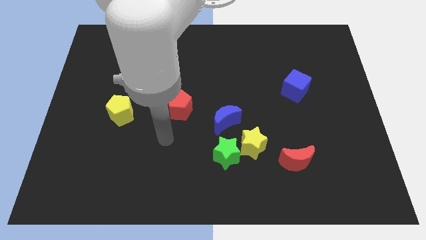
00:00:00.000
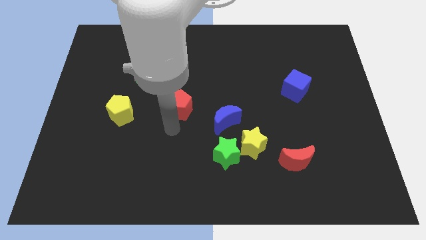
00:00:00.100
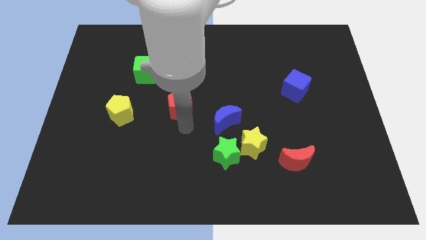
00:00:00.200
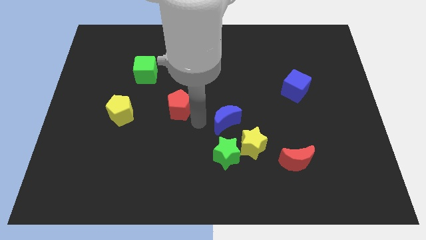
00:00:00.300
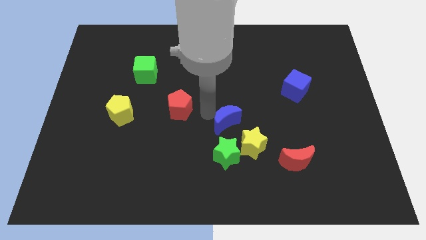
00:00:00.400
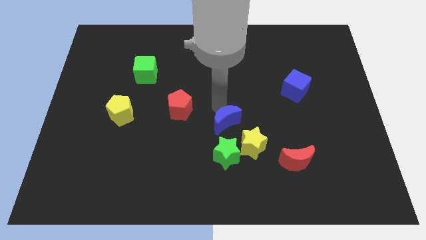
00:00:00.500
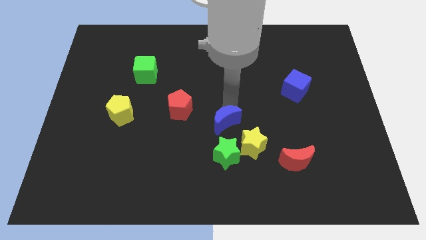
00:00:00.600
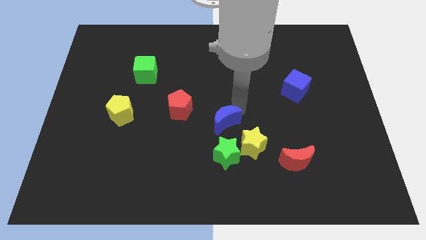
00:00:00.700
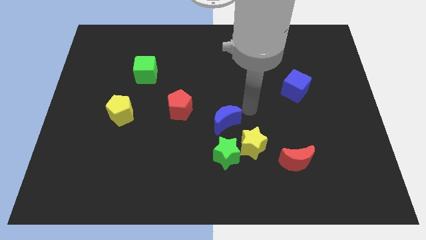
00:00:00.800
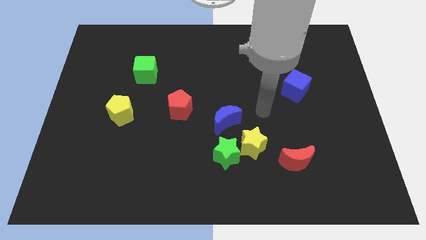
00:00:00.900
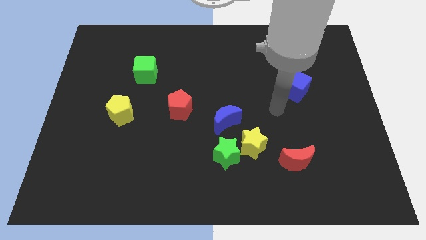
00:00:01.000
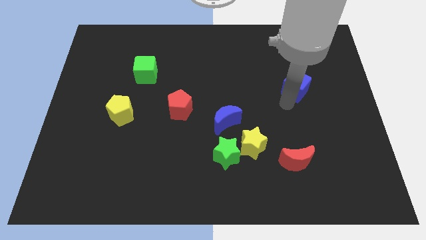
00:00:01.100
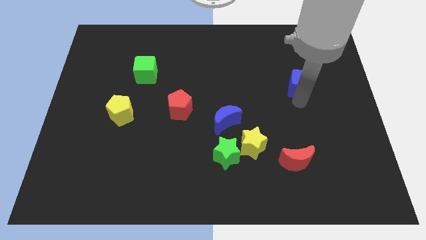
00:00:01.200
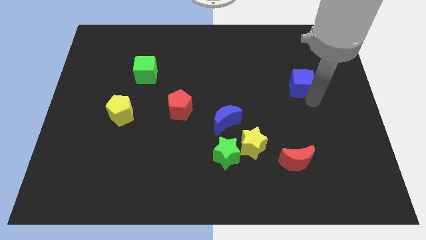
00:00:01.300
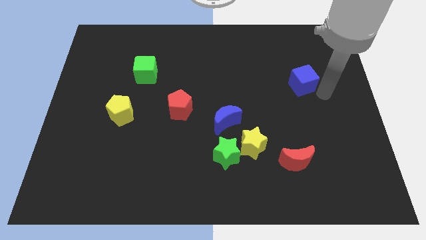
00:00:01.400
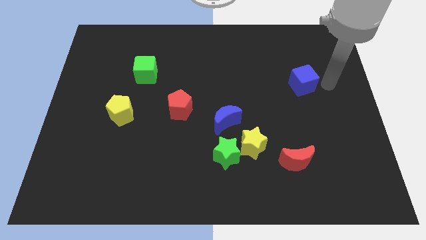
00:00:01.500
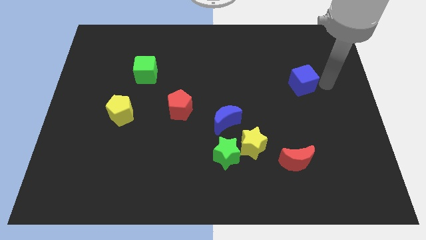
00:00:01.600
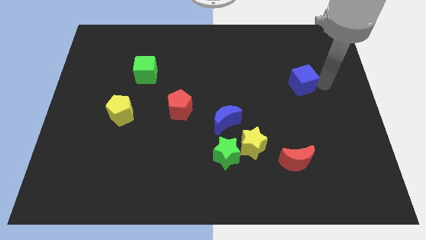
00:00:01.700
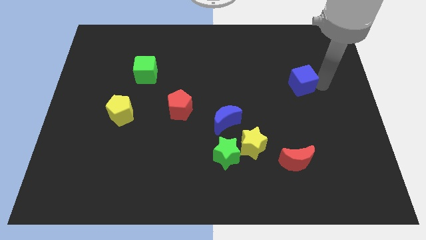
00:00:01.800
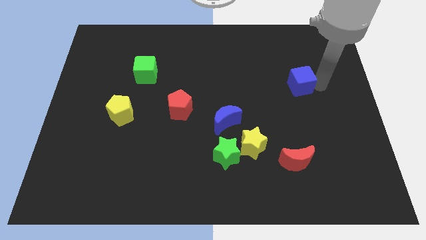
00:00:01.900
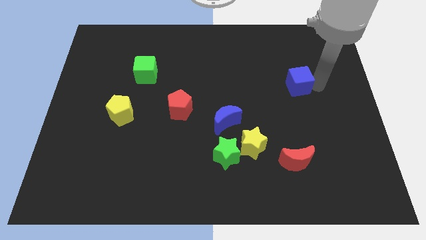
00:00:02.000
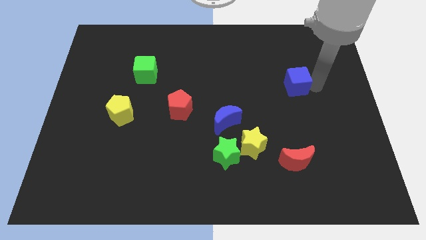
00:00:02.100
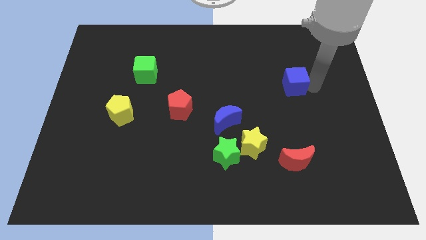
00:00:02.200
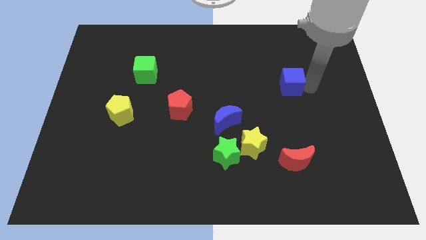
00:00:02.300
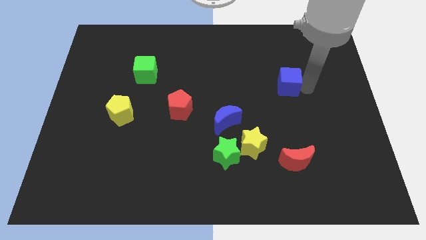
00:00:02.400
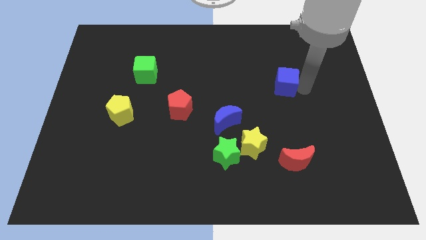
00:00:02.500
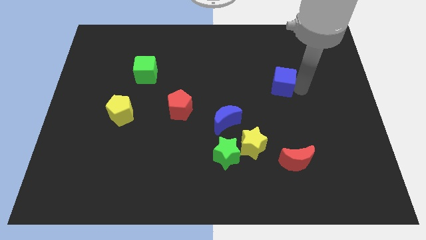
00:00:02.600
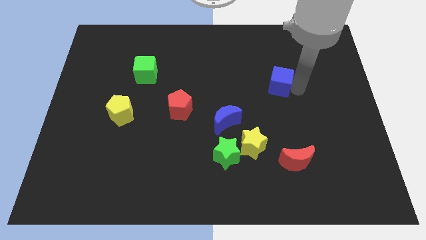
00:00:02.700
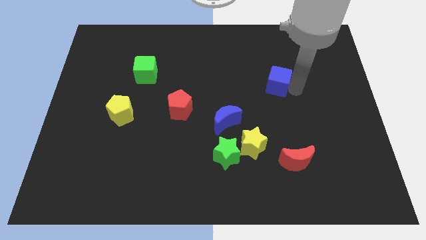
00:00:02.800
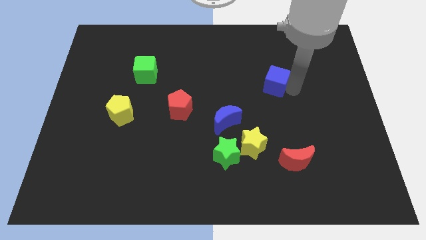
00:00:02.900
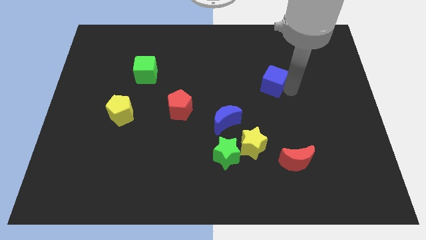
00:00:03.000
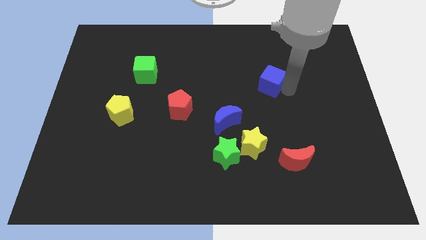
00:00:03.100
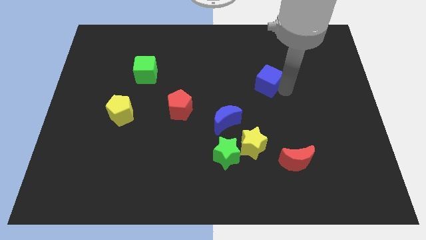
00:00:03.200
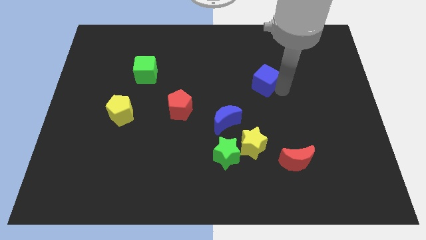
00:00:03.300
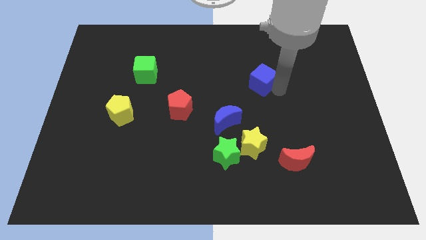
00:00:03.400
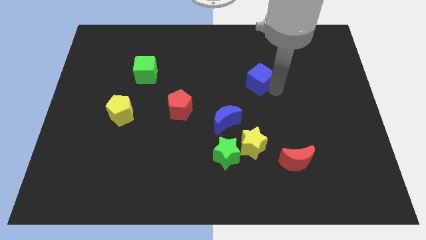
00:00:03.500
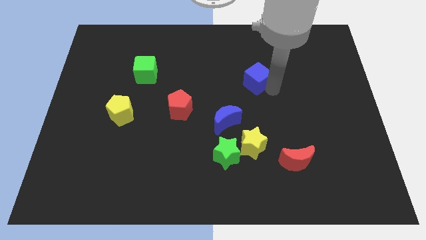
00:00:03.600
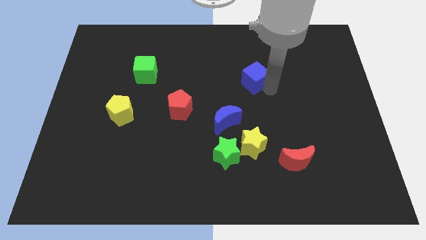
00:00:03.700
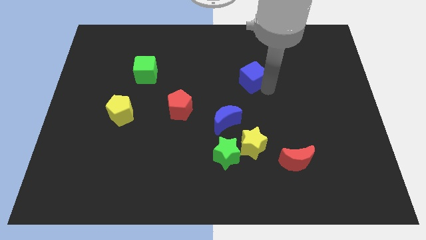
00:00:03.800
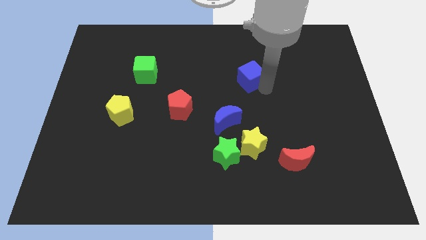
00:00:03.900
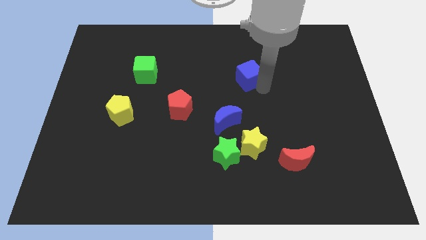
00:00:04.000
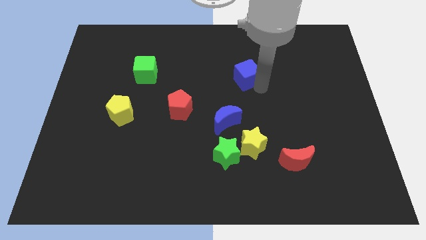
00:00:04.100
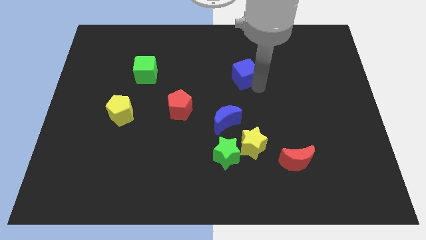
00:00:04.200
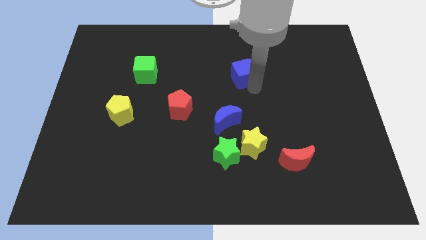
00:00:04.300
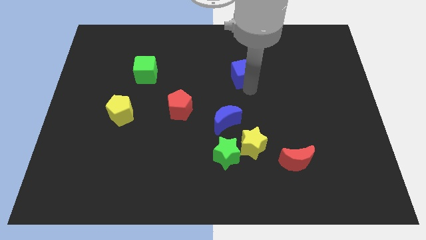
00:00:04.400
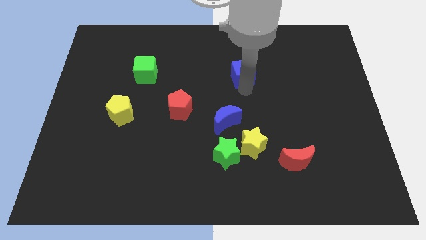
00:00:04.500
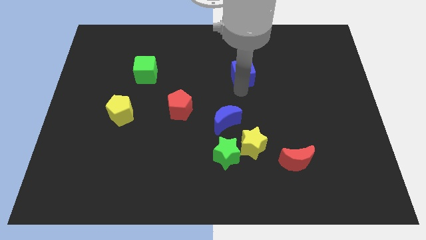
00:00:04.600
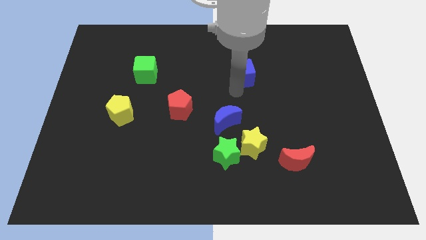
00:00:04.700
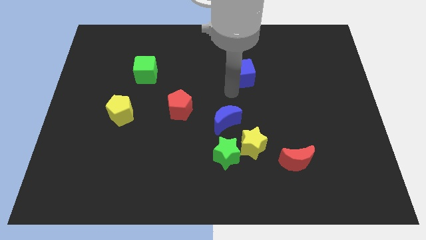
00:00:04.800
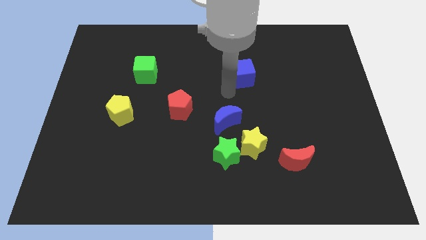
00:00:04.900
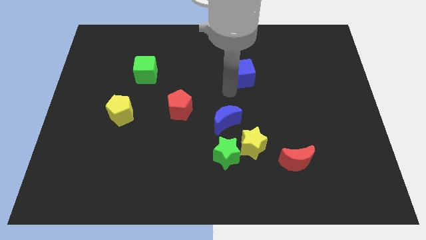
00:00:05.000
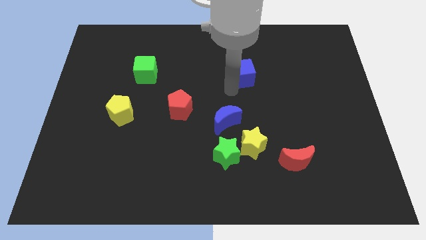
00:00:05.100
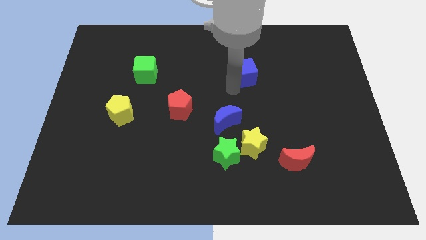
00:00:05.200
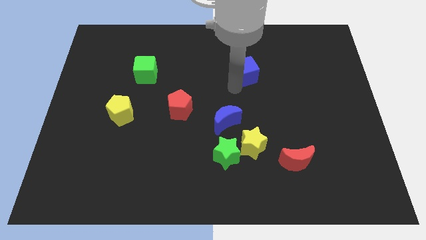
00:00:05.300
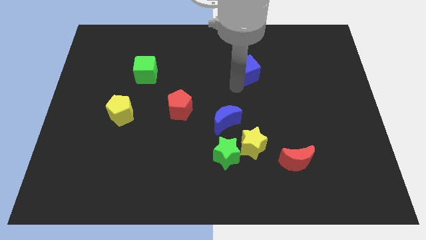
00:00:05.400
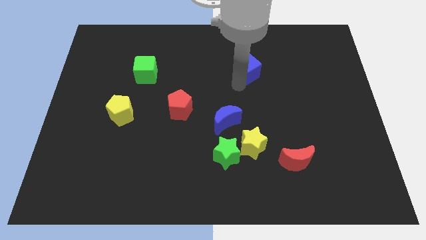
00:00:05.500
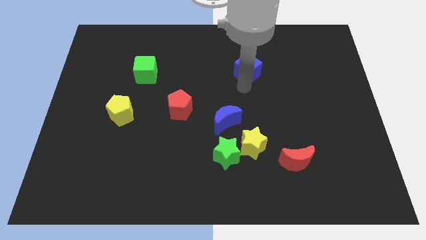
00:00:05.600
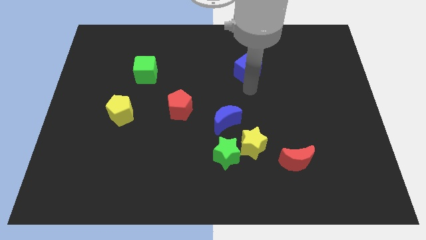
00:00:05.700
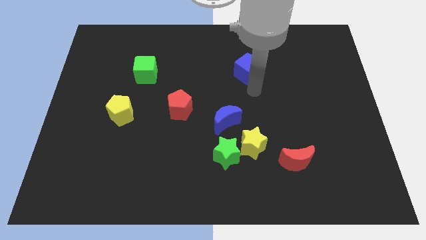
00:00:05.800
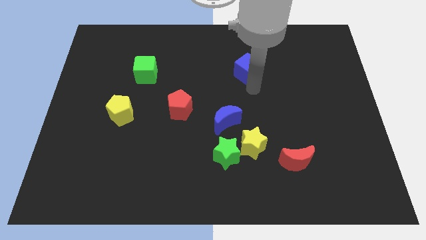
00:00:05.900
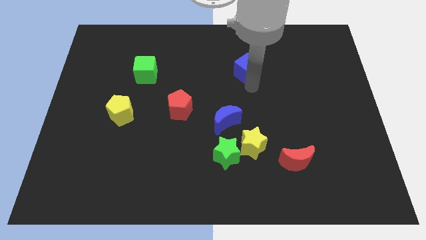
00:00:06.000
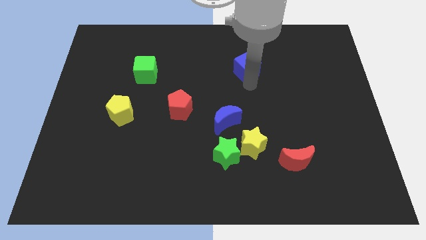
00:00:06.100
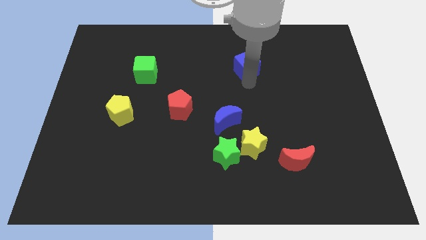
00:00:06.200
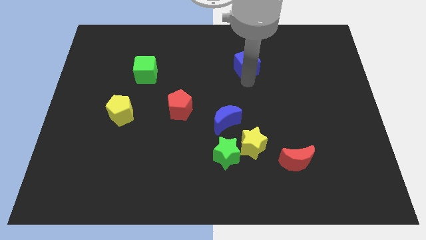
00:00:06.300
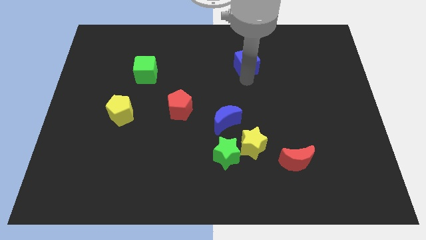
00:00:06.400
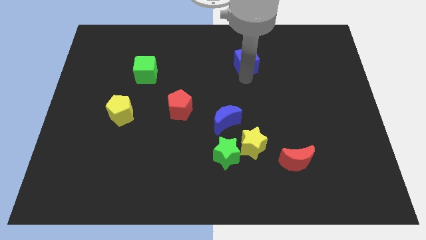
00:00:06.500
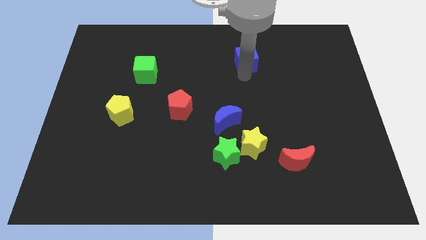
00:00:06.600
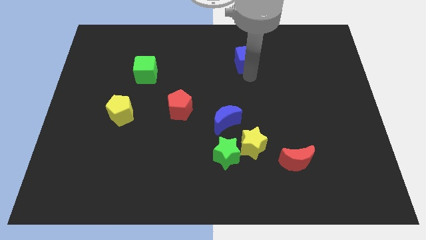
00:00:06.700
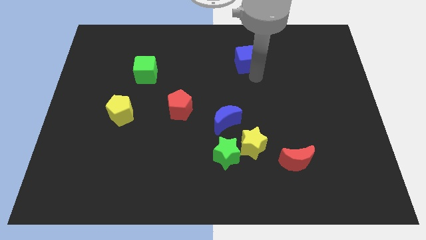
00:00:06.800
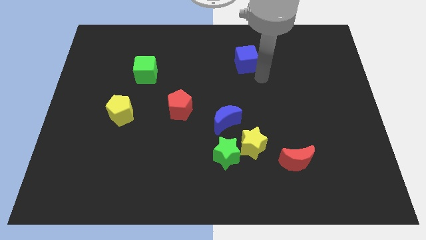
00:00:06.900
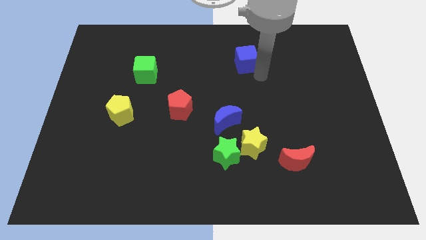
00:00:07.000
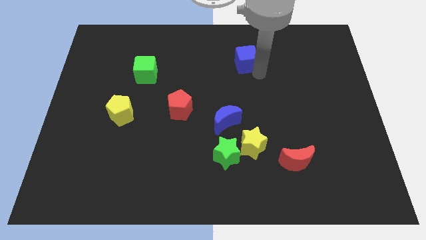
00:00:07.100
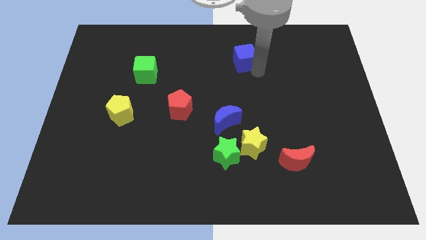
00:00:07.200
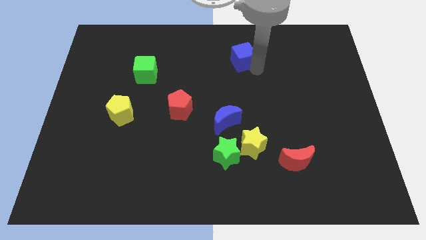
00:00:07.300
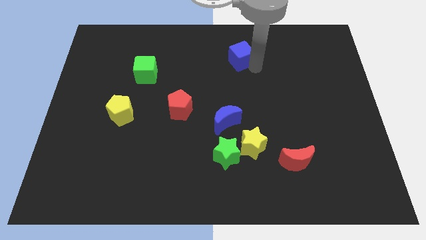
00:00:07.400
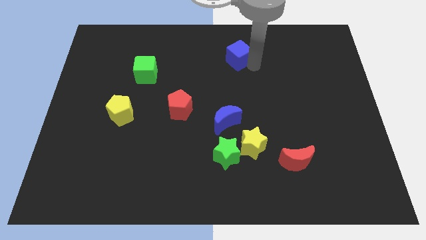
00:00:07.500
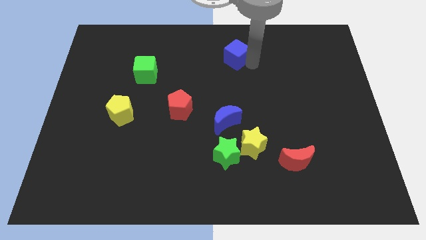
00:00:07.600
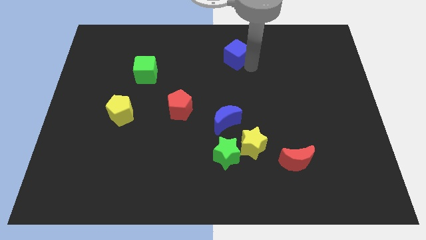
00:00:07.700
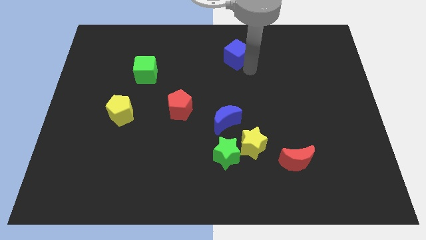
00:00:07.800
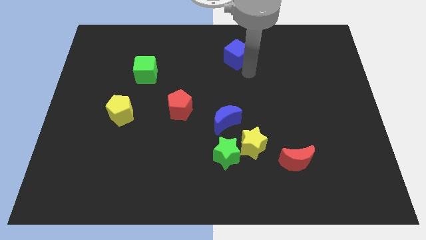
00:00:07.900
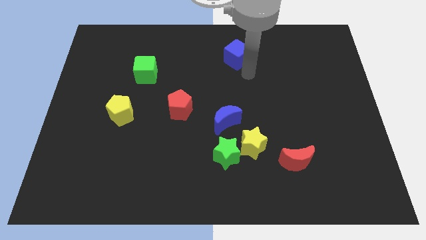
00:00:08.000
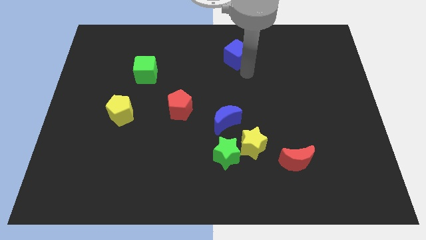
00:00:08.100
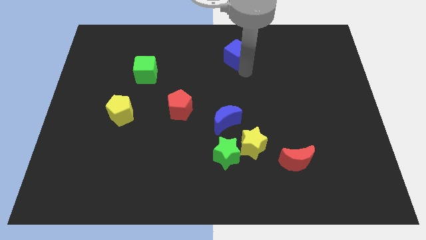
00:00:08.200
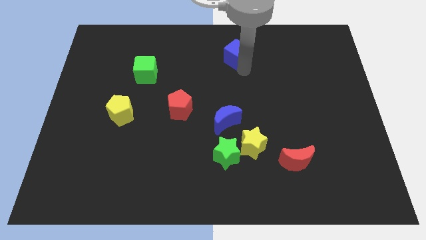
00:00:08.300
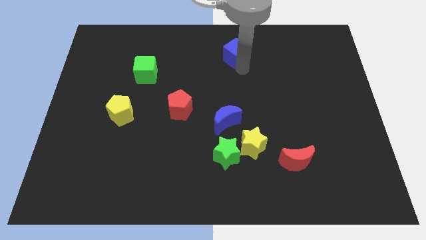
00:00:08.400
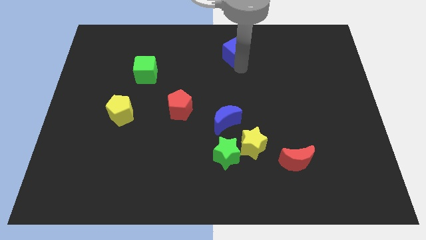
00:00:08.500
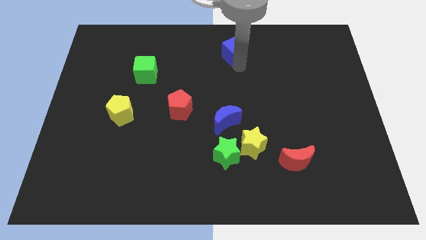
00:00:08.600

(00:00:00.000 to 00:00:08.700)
put the blue cube to the towards your base
